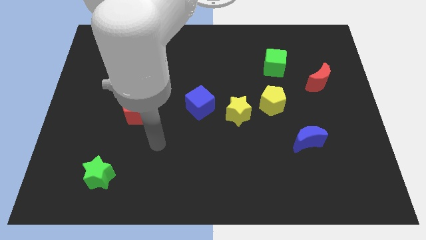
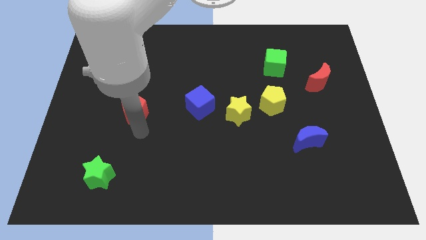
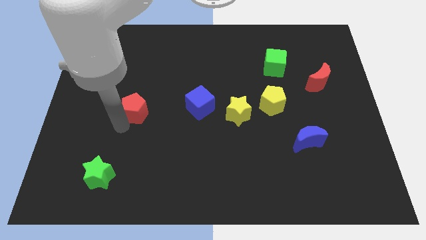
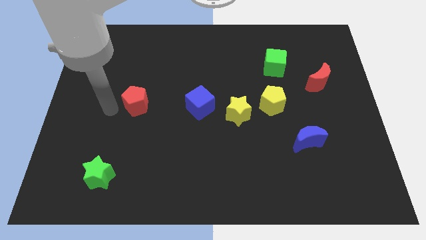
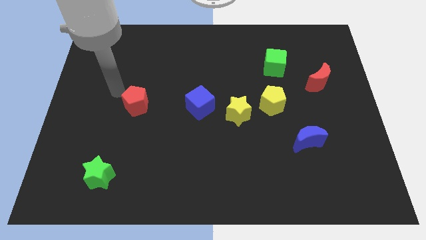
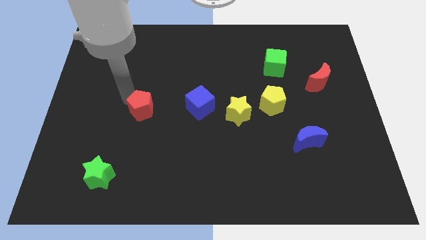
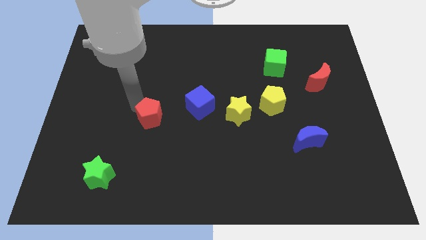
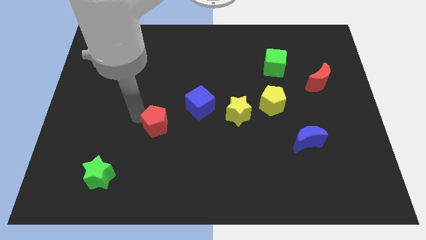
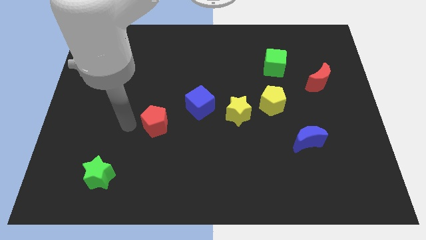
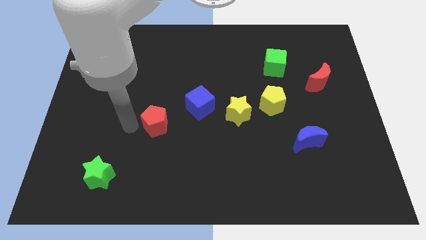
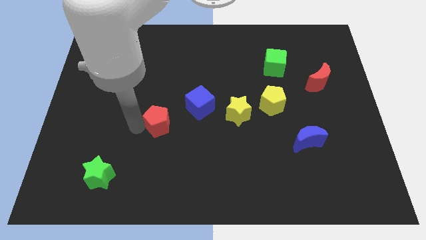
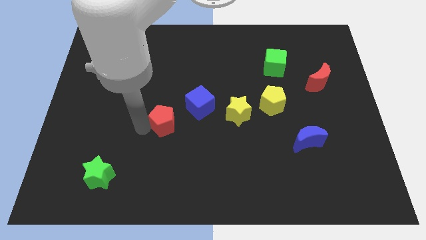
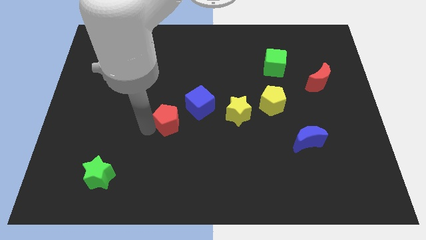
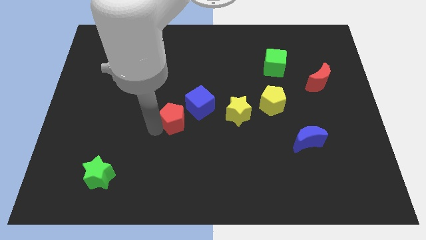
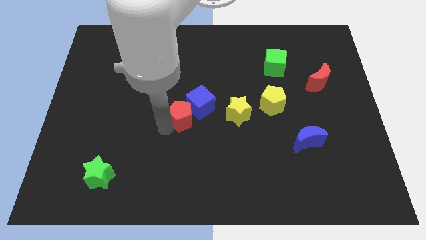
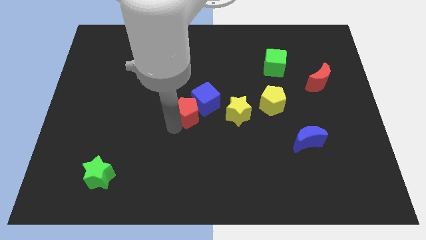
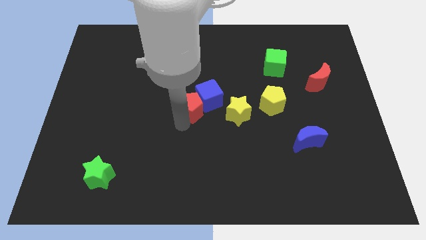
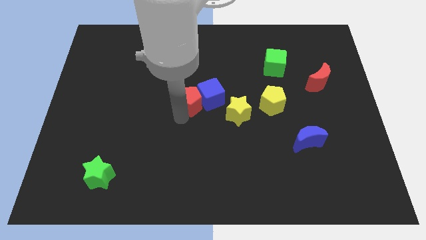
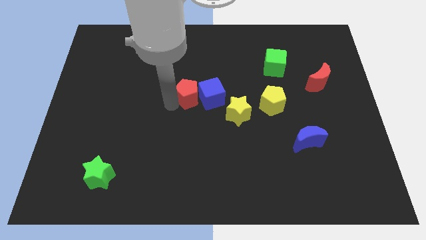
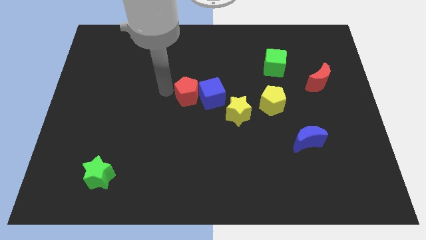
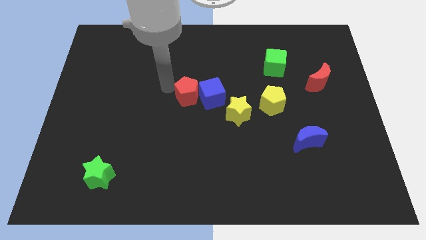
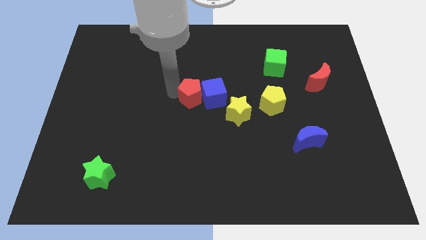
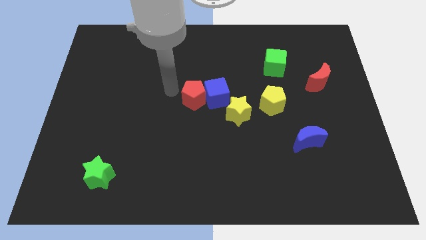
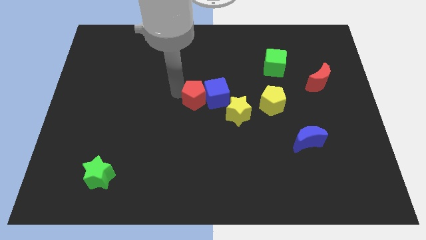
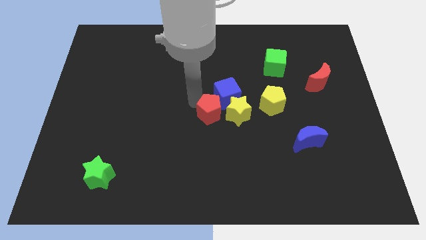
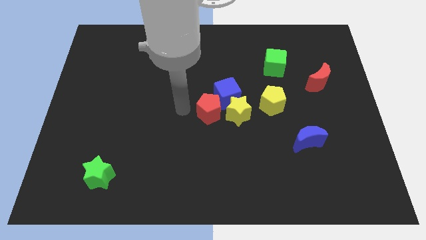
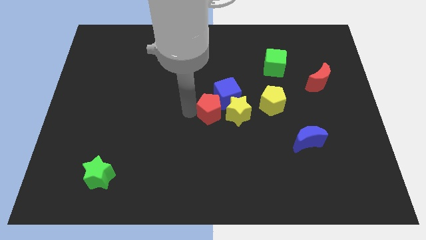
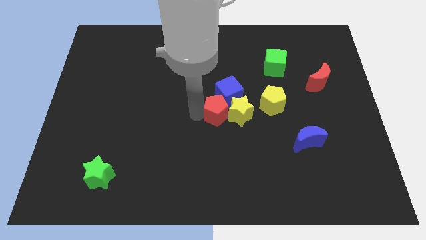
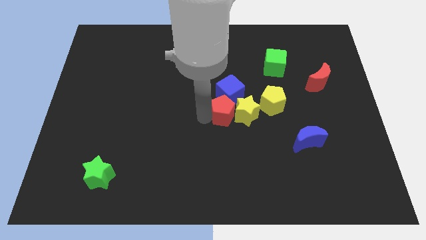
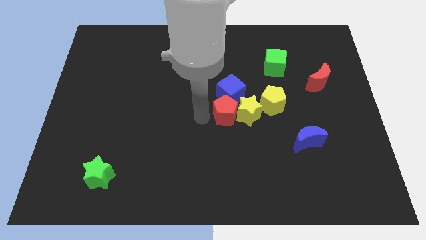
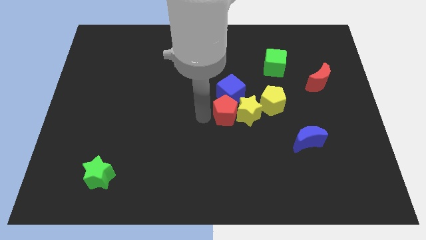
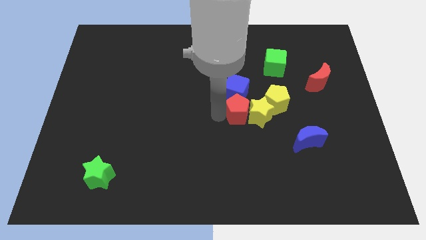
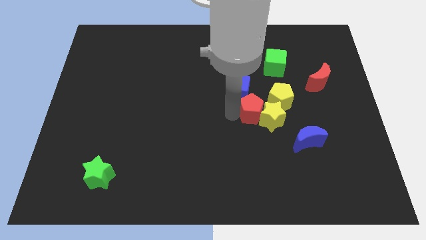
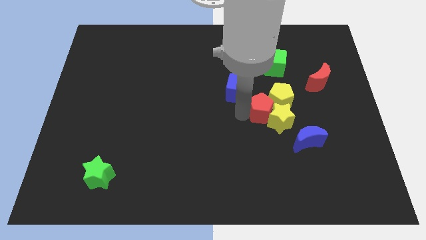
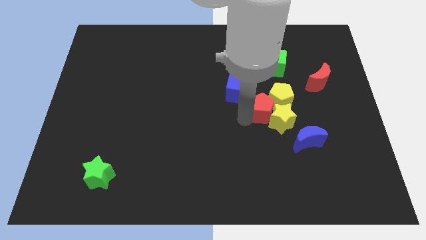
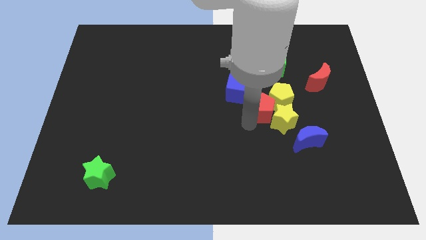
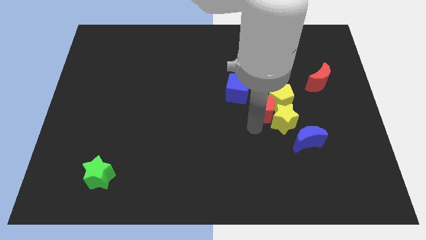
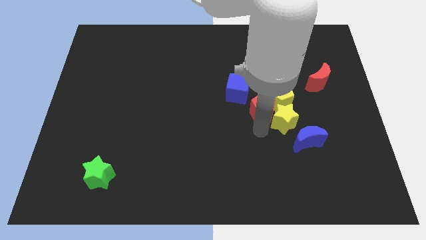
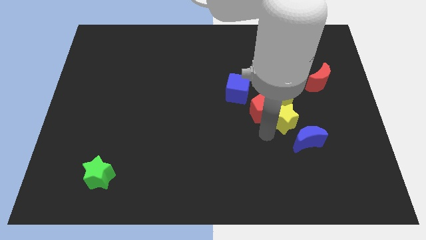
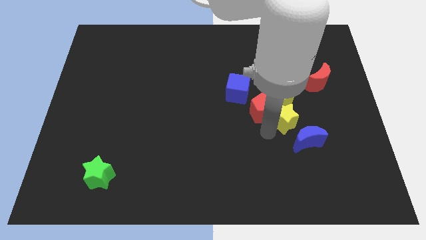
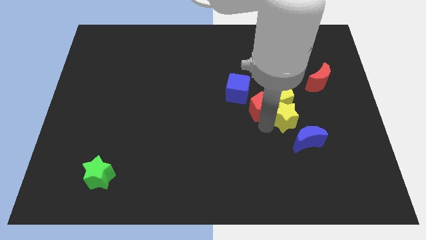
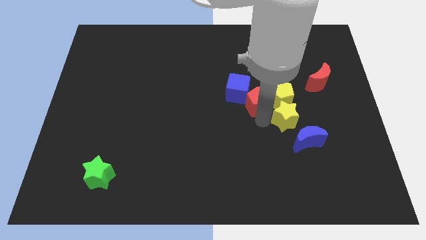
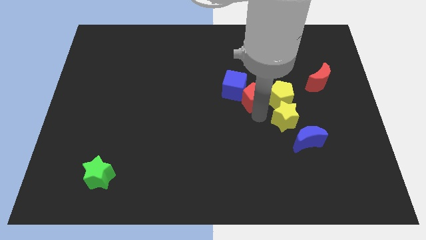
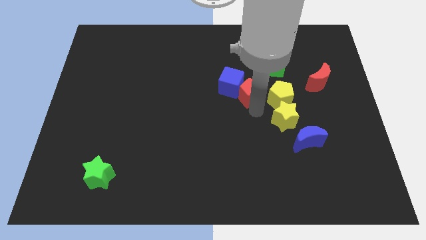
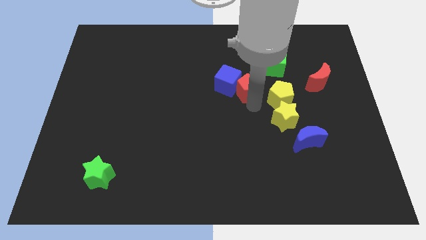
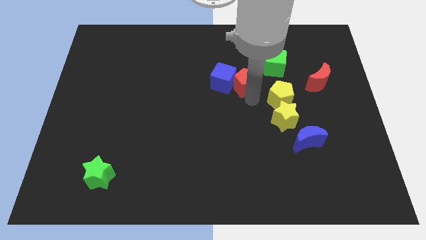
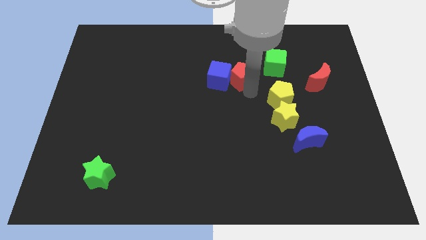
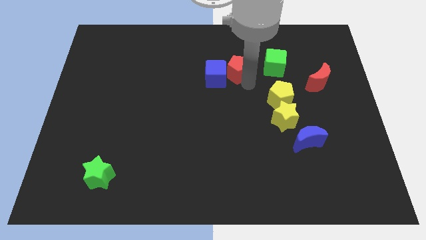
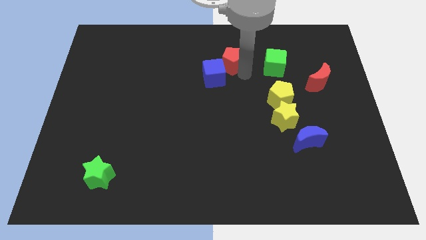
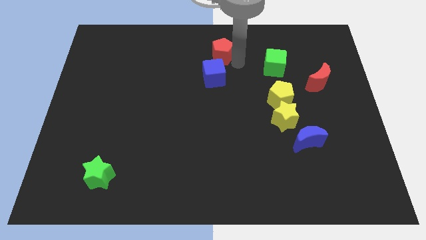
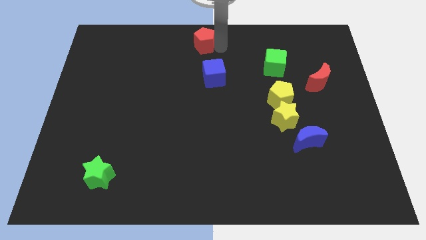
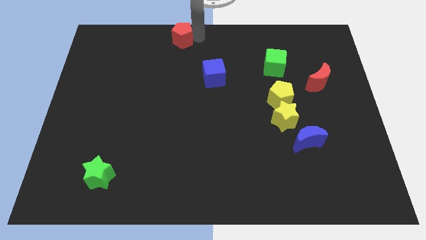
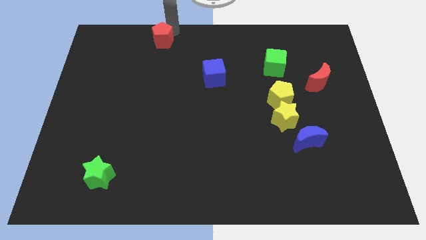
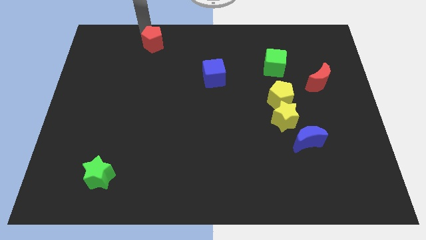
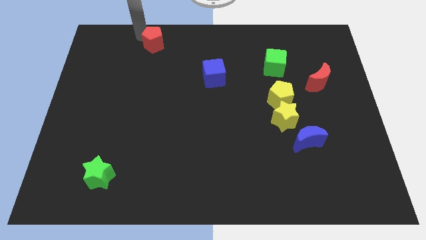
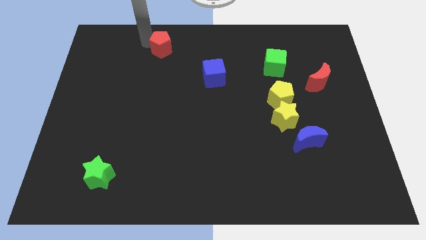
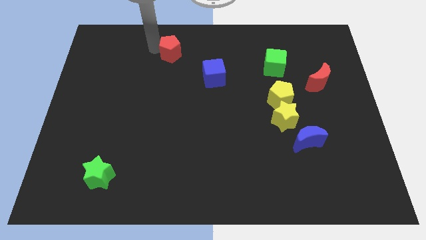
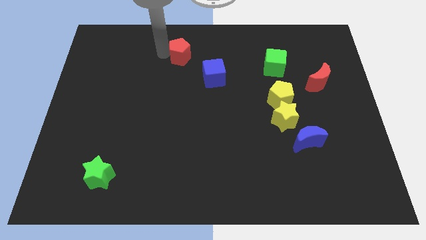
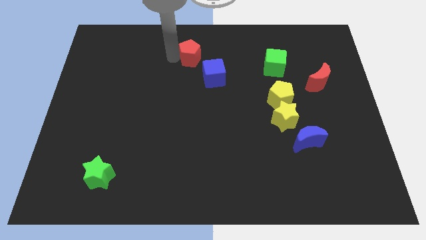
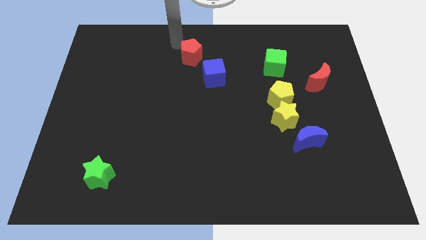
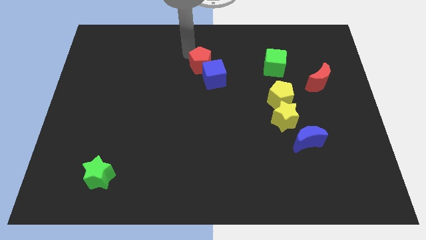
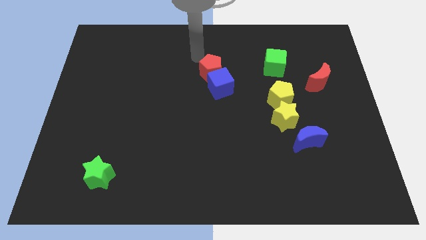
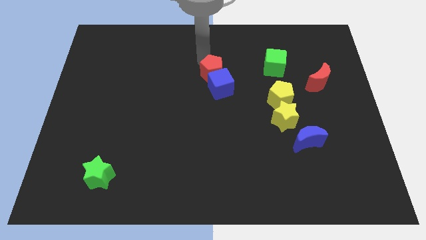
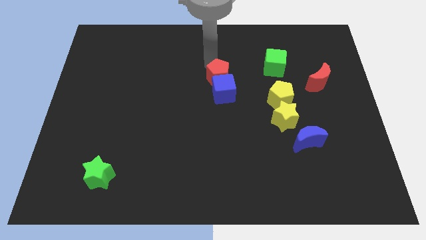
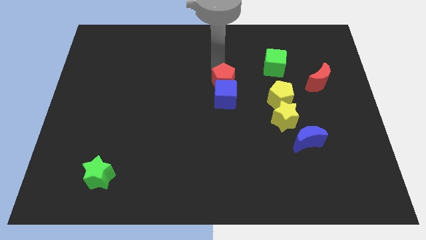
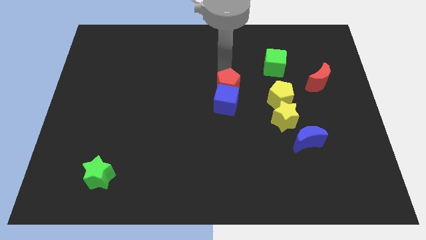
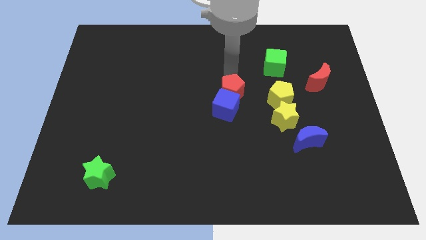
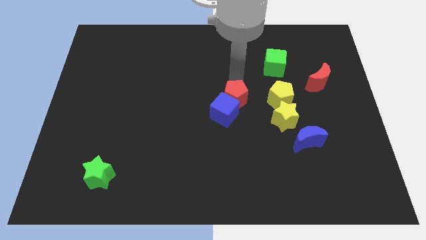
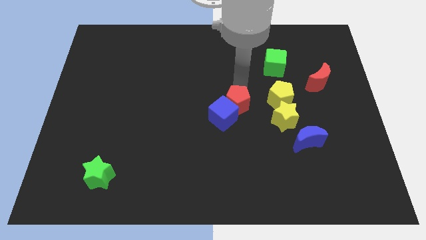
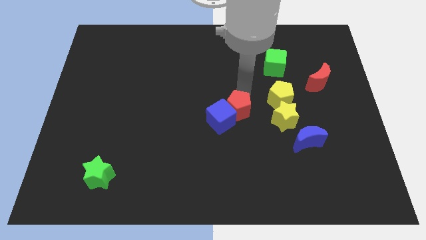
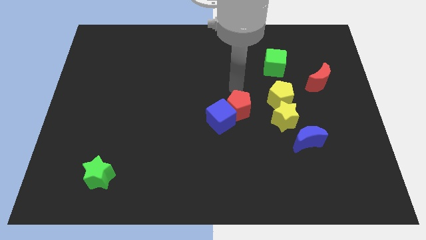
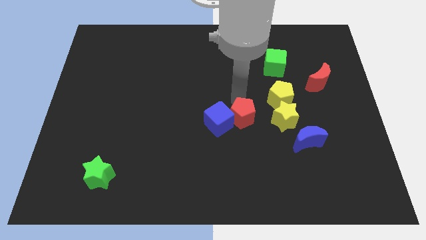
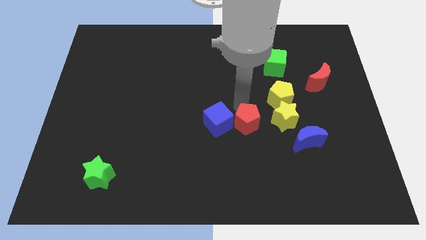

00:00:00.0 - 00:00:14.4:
move the red pentagon to the bottom right side of the blue cube

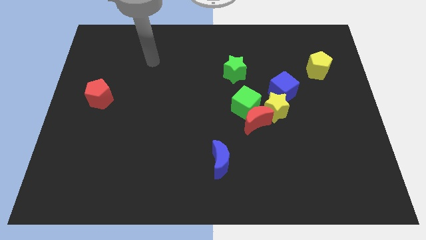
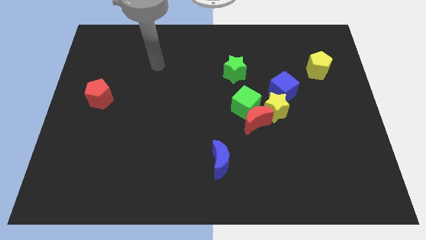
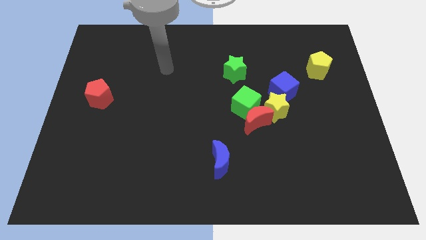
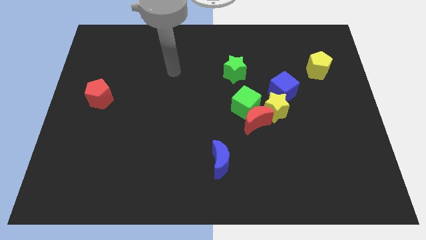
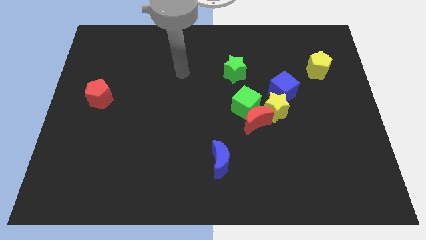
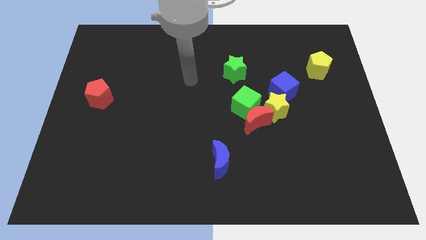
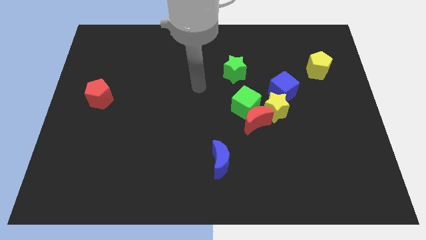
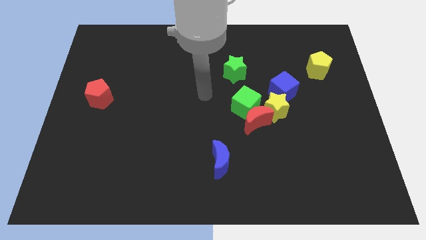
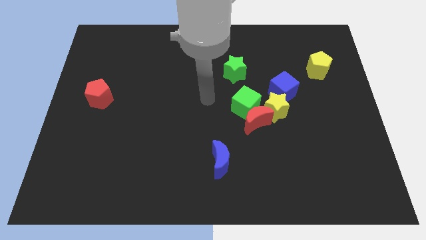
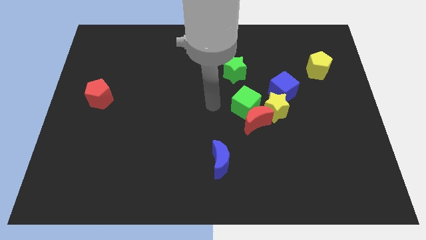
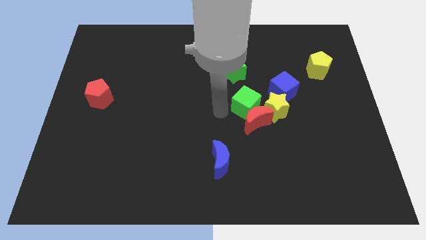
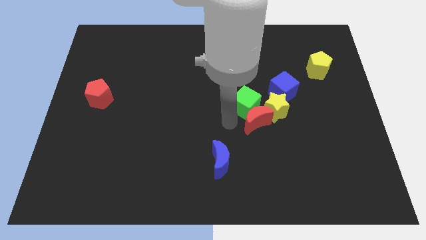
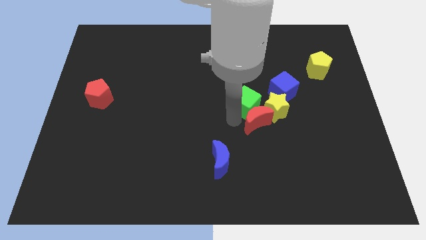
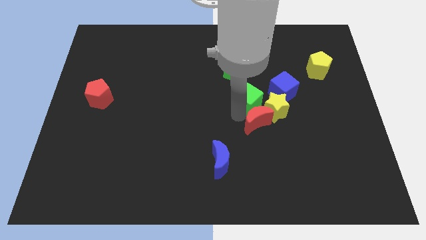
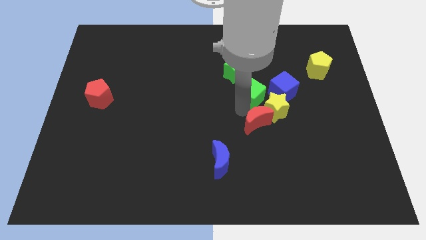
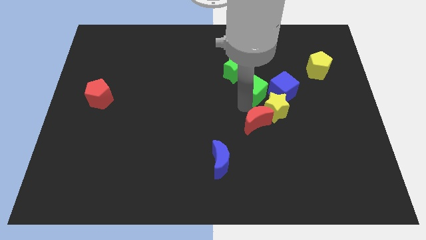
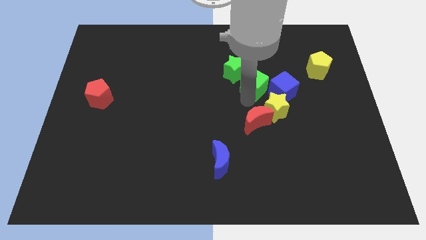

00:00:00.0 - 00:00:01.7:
push the green cube to the top of the yellow star
